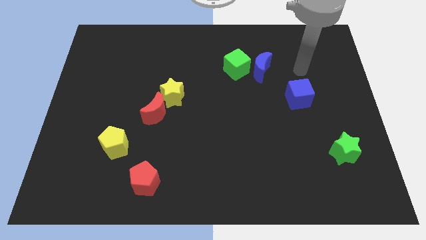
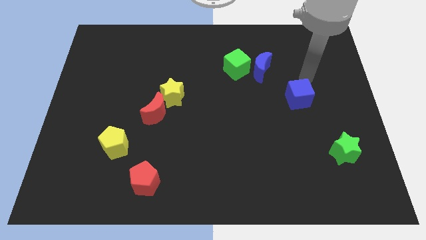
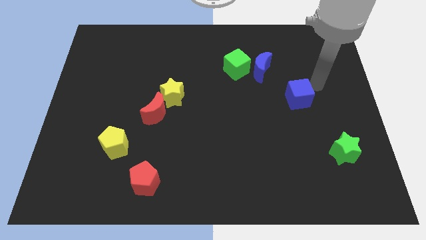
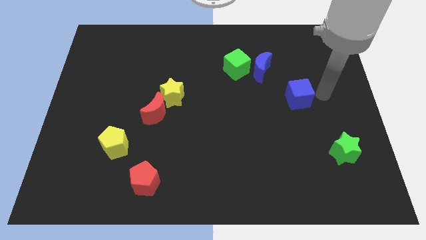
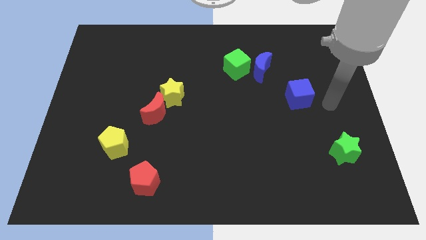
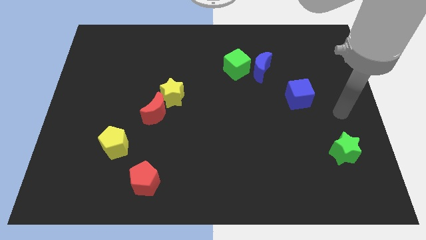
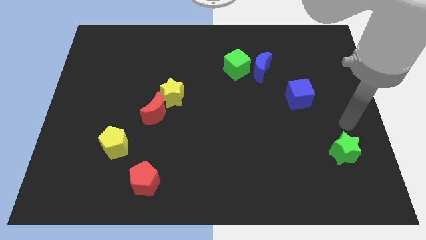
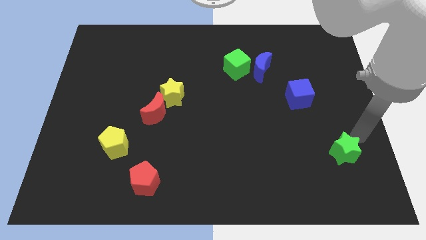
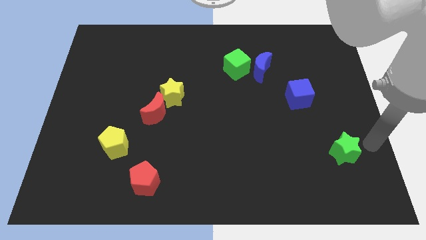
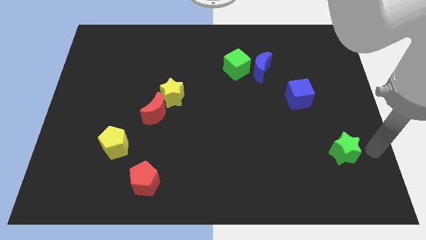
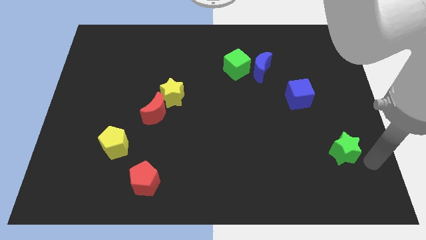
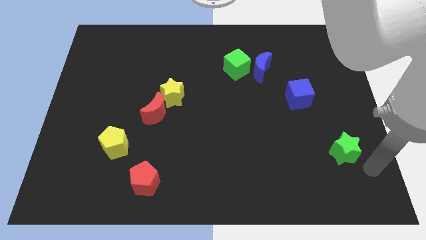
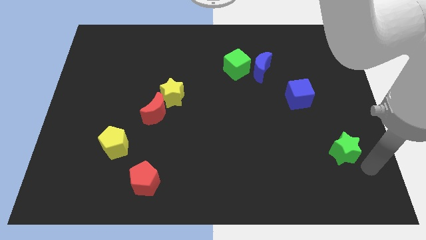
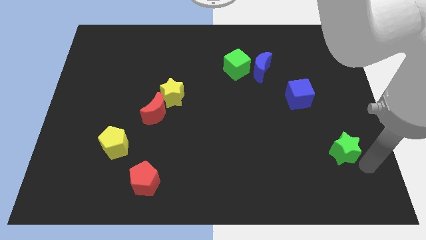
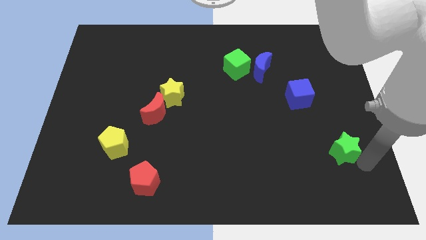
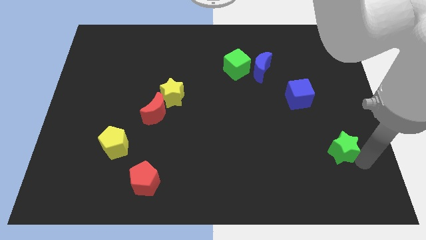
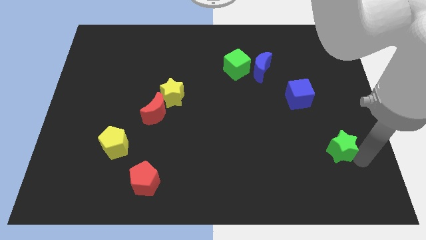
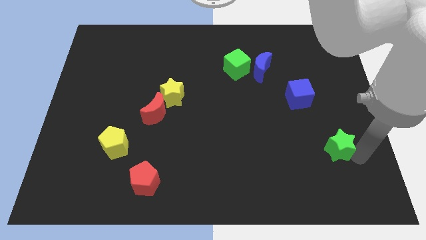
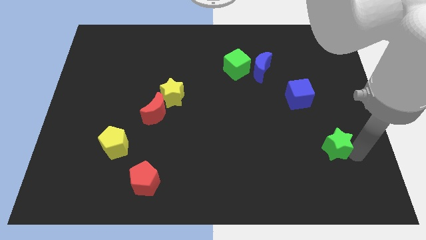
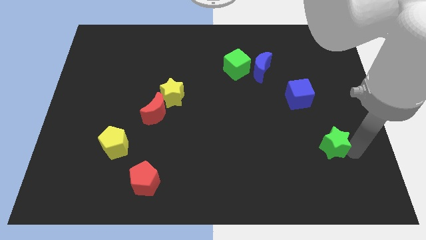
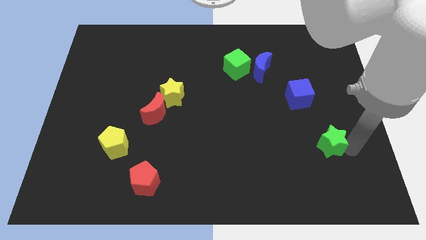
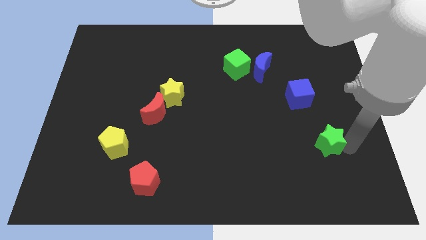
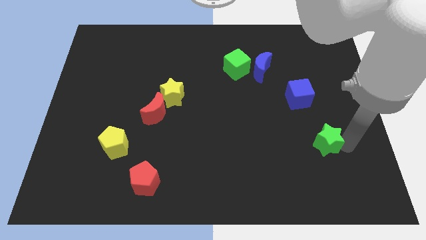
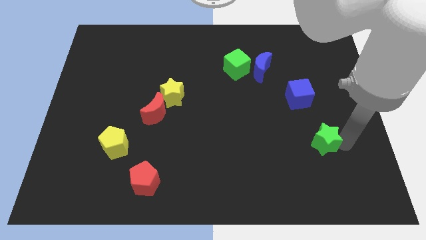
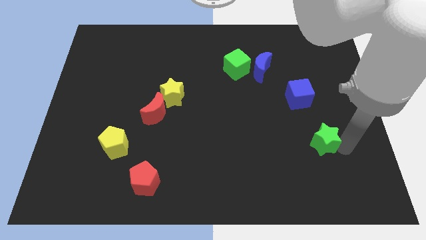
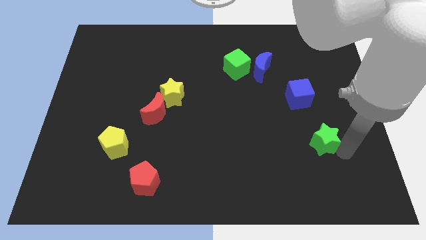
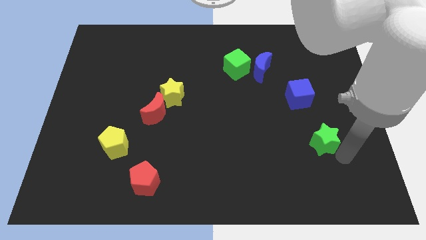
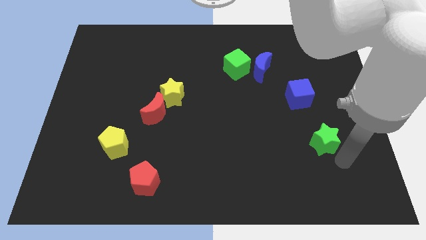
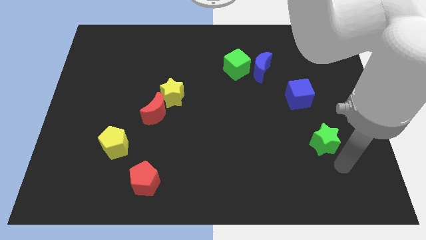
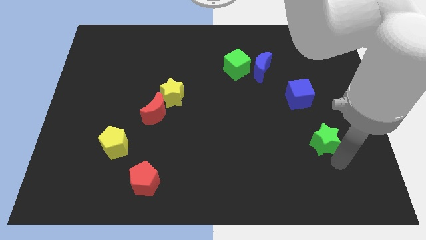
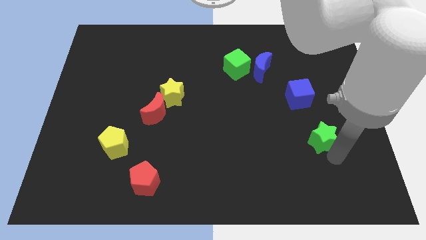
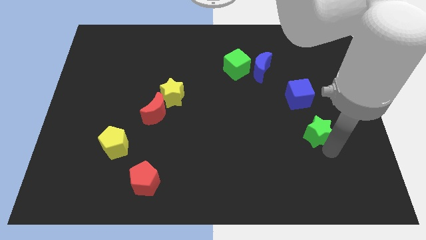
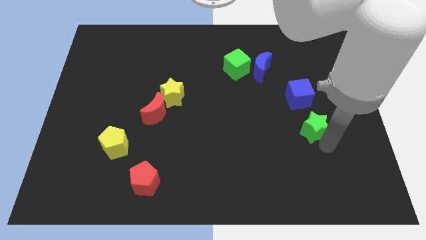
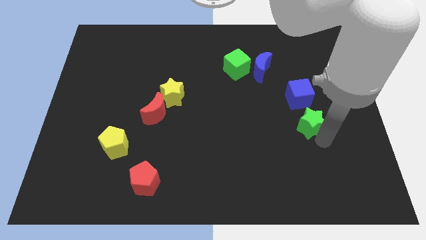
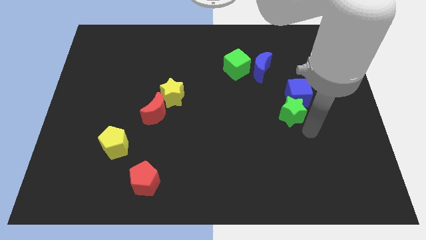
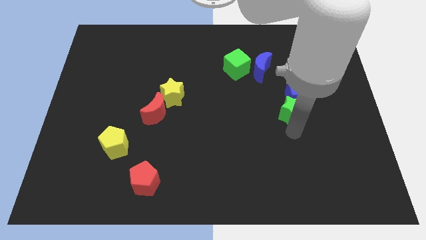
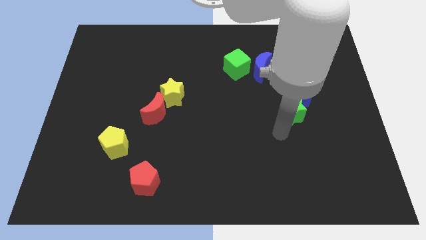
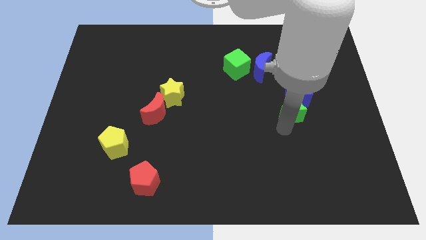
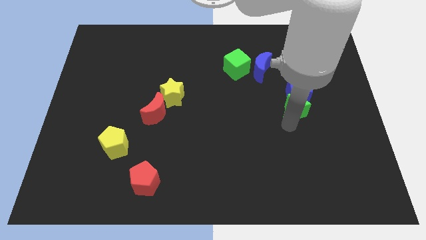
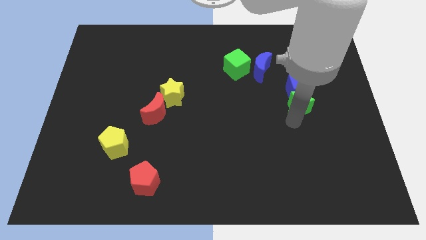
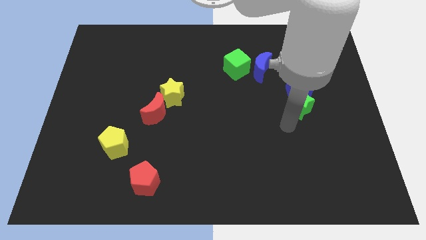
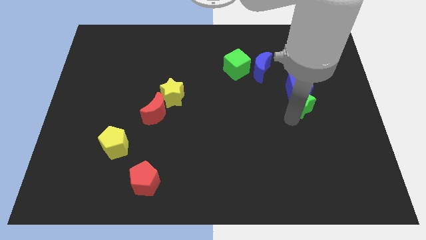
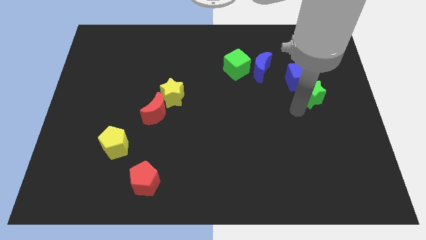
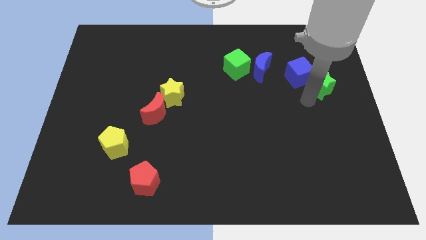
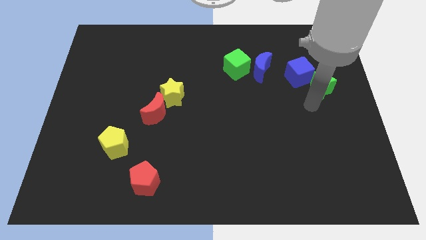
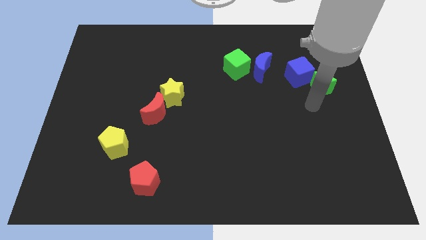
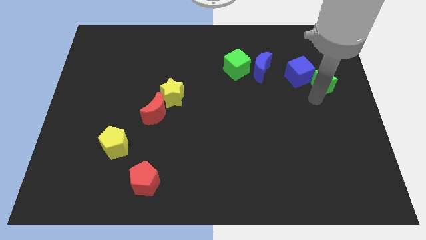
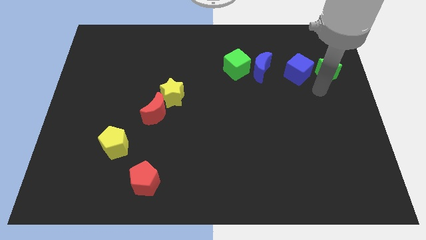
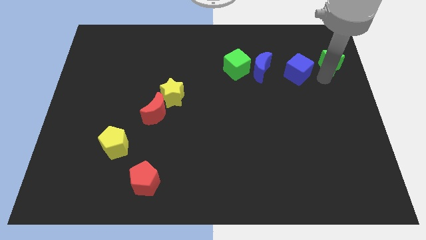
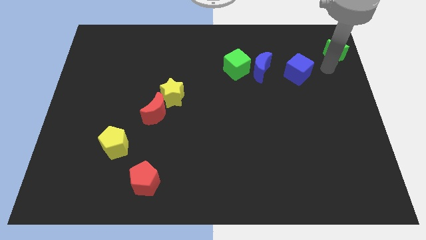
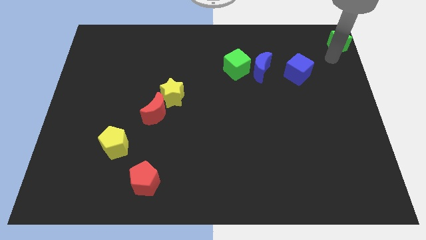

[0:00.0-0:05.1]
put the green star to the top right corner

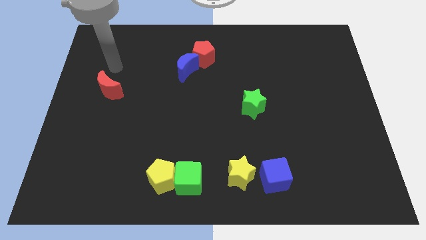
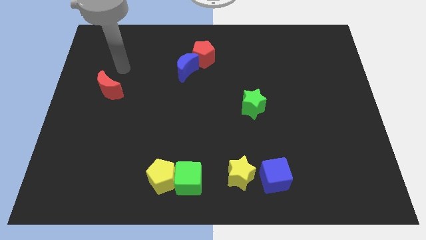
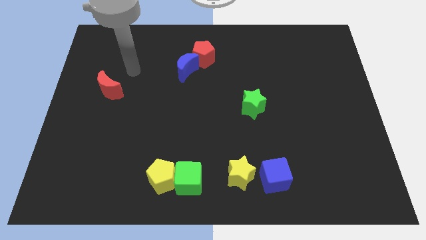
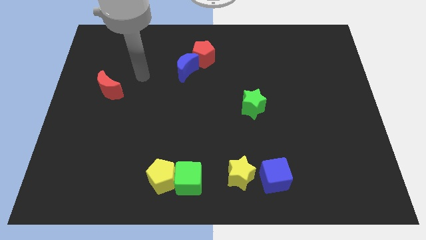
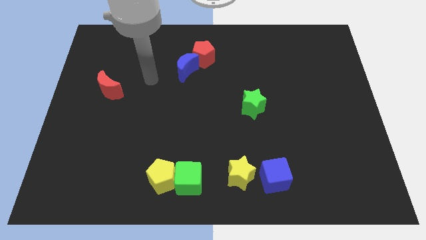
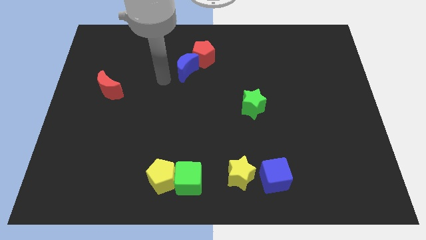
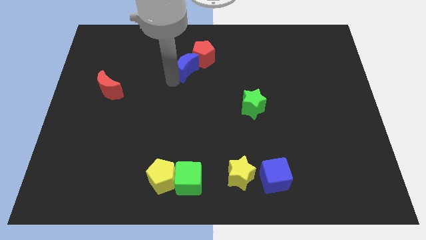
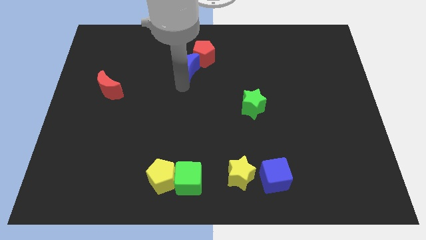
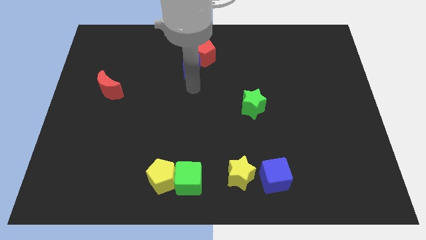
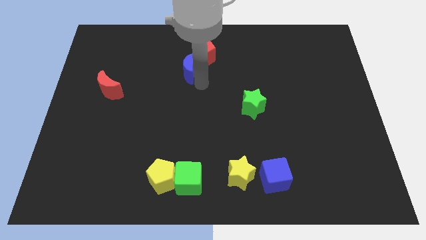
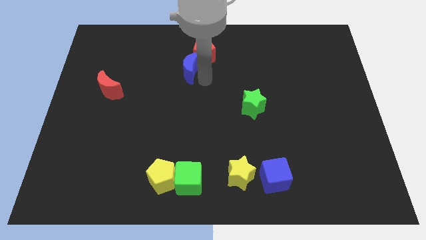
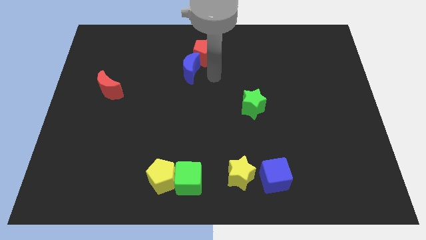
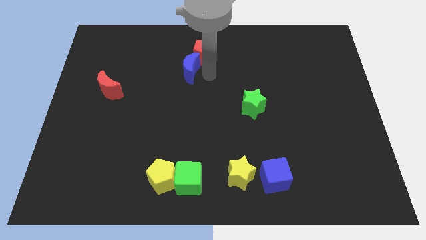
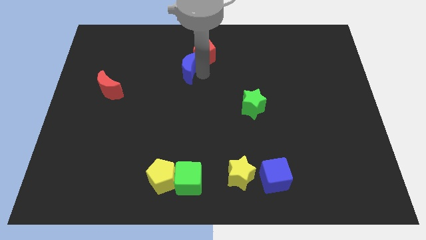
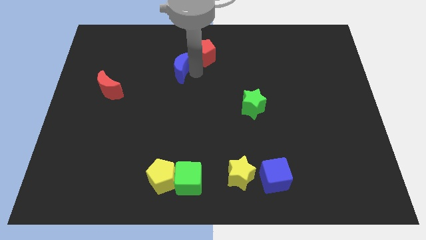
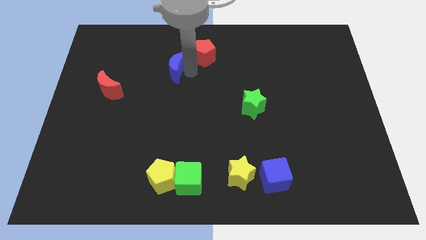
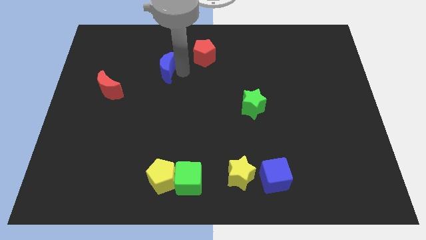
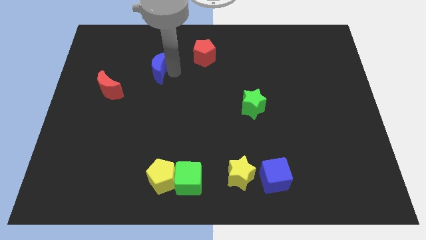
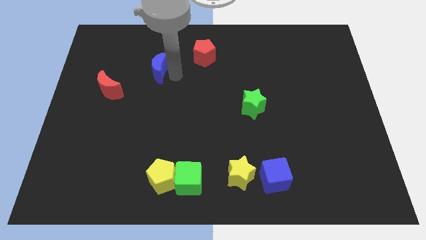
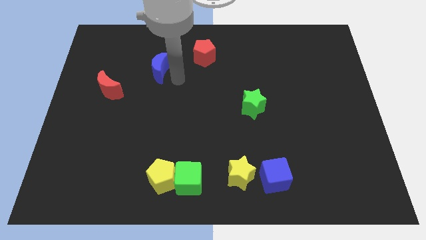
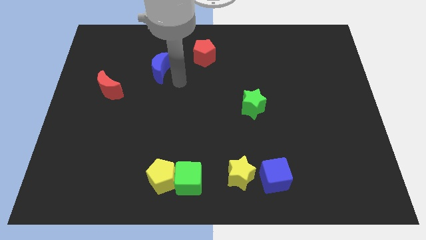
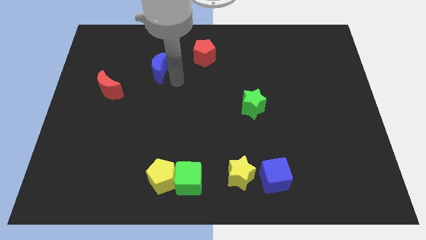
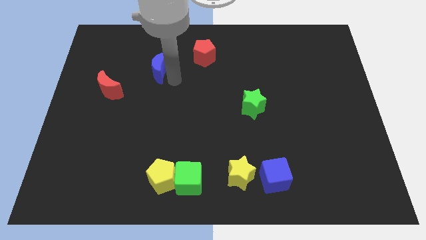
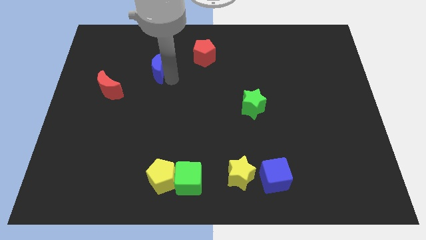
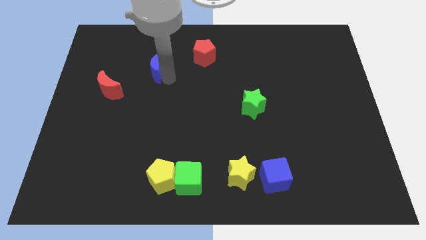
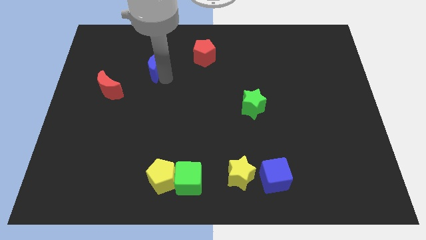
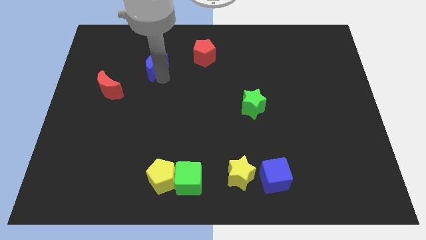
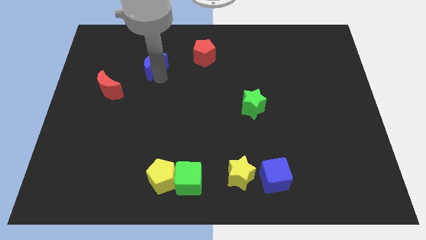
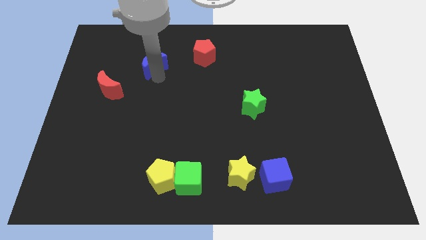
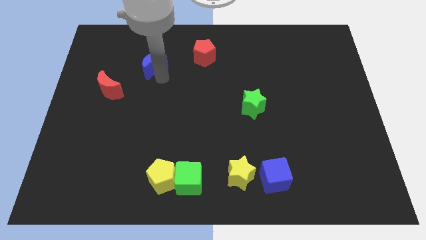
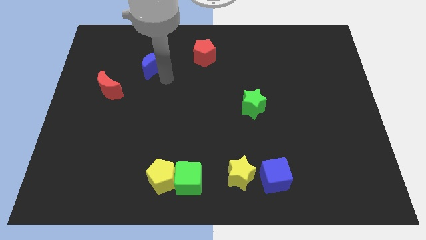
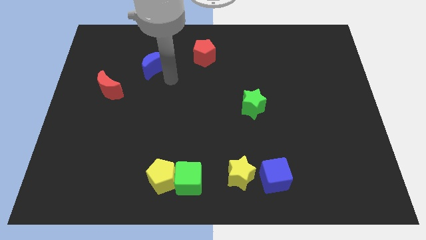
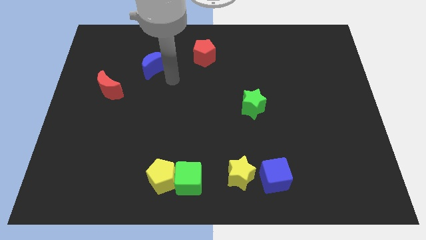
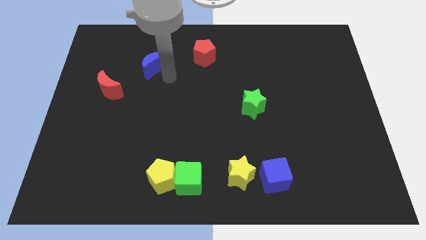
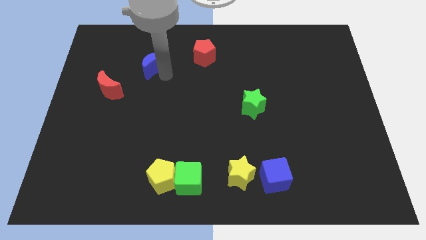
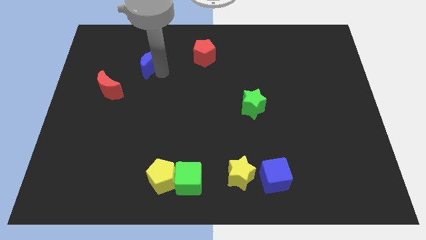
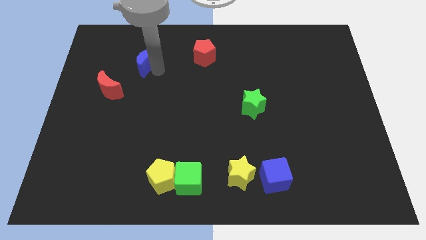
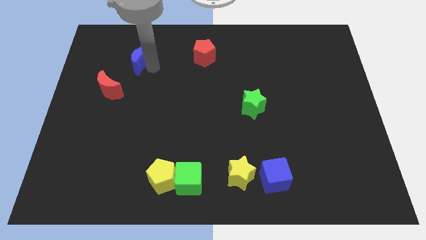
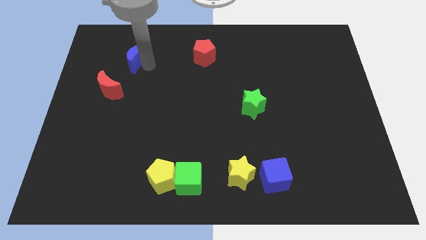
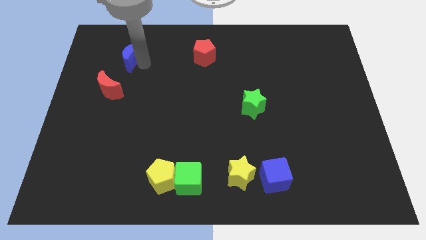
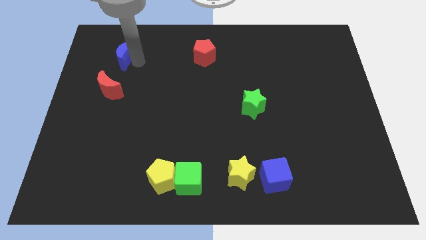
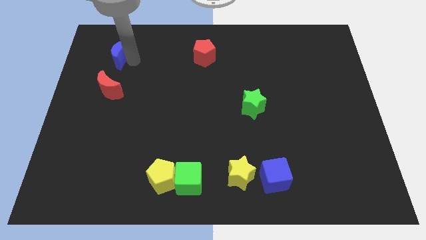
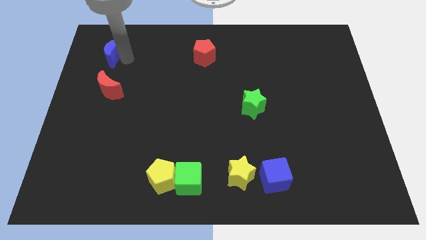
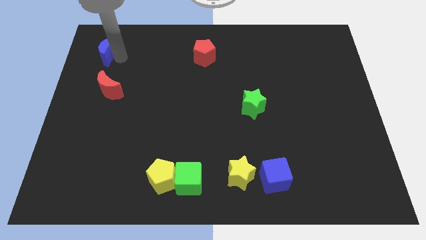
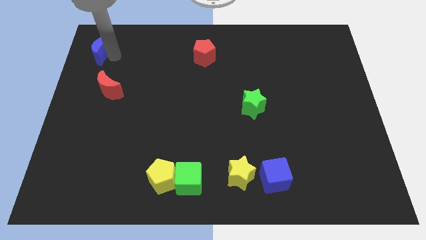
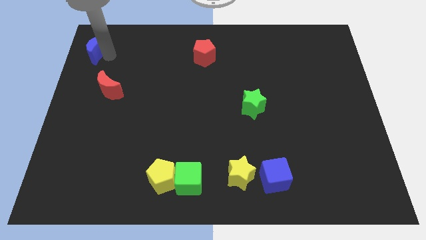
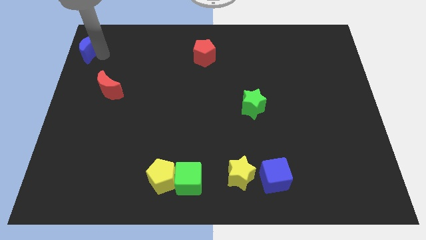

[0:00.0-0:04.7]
push the blue moon to the top left
